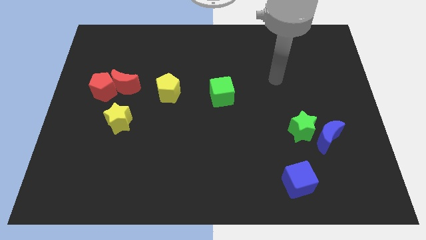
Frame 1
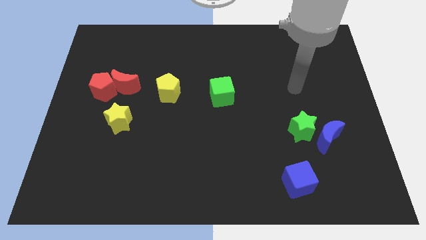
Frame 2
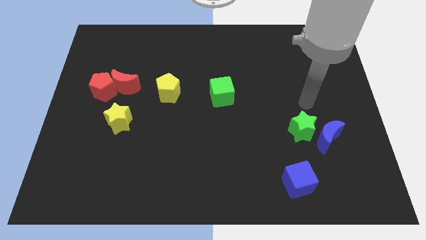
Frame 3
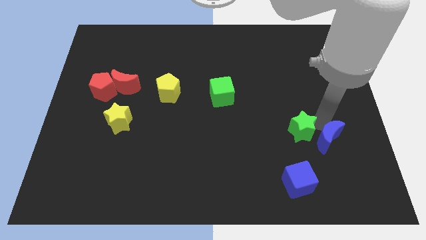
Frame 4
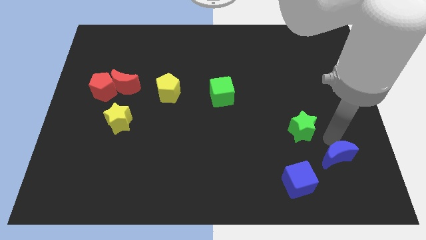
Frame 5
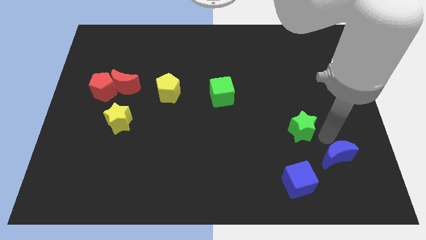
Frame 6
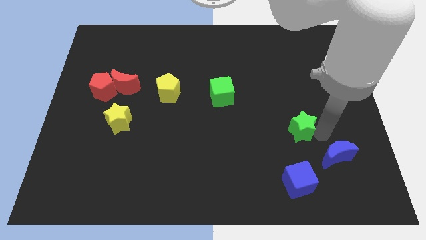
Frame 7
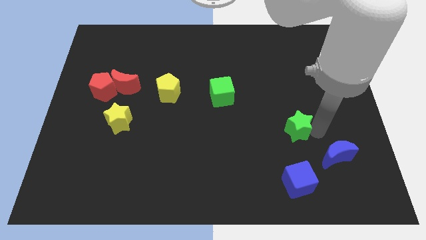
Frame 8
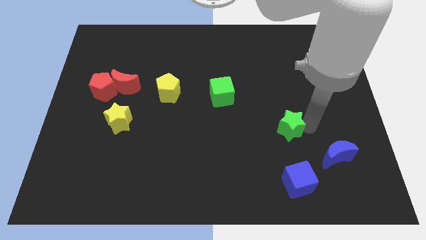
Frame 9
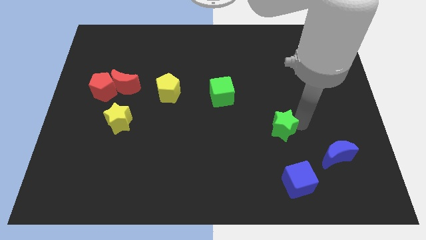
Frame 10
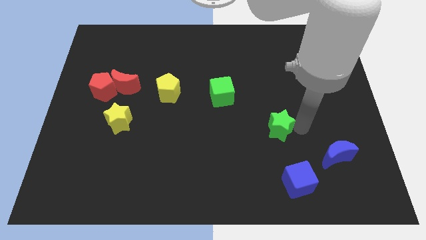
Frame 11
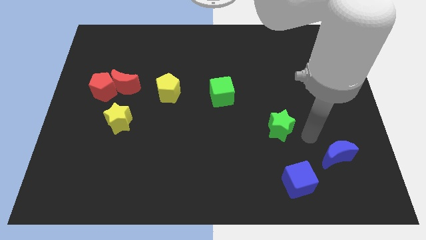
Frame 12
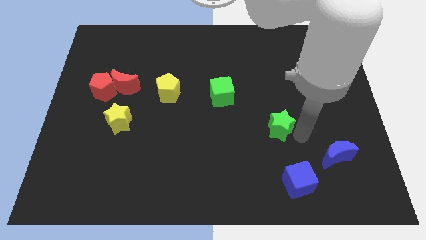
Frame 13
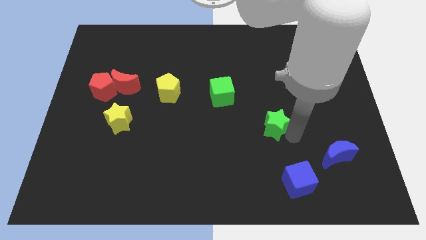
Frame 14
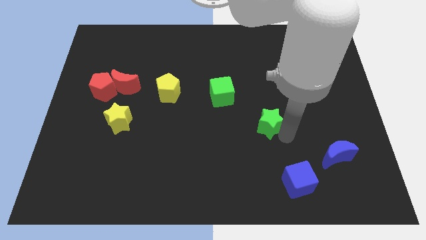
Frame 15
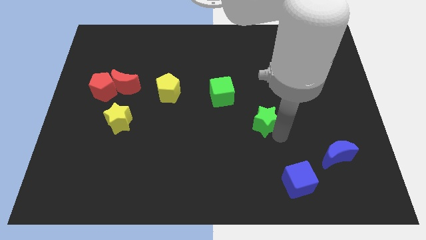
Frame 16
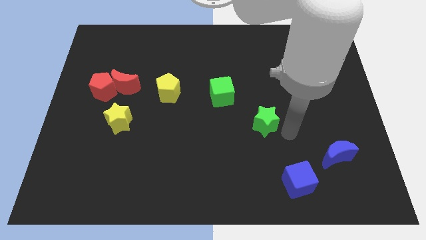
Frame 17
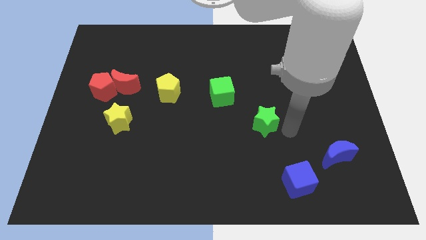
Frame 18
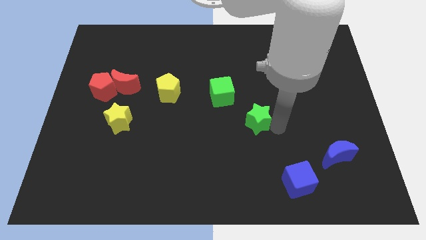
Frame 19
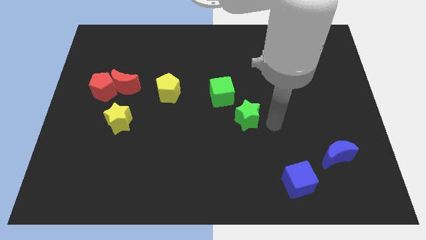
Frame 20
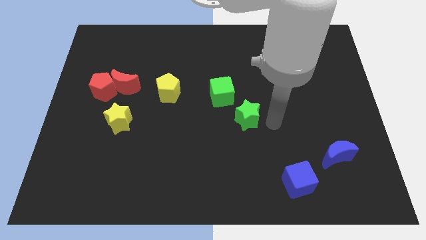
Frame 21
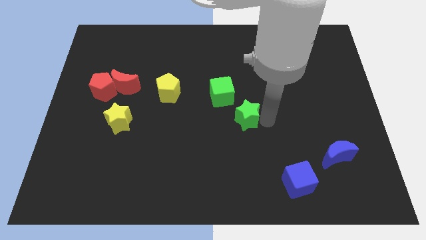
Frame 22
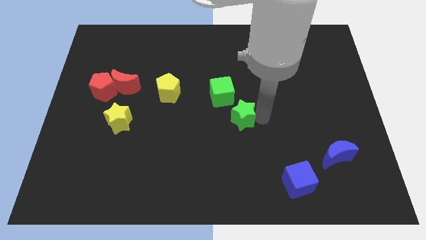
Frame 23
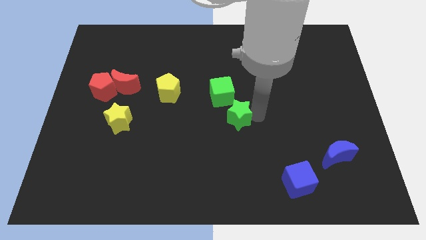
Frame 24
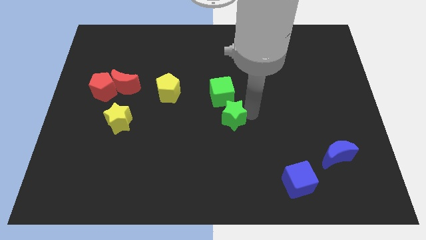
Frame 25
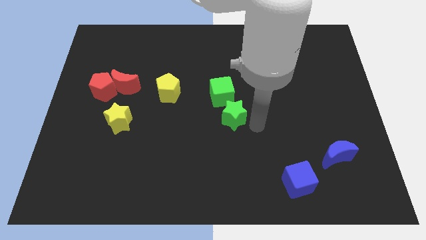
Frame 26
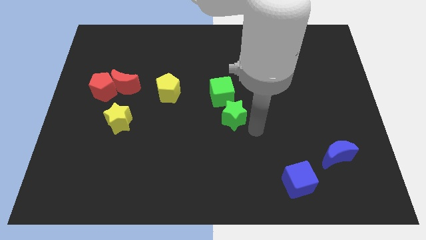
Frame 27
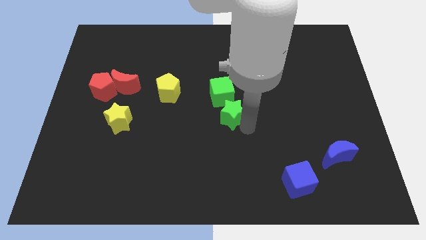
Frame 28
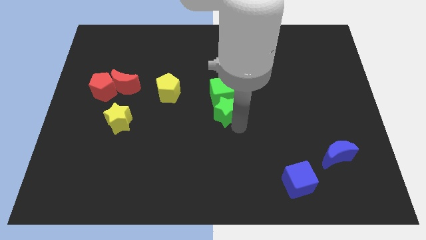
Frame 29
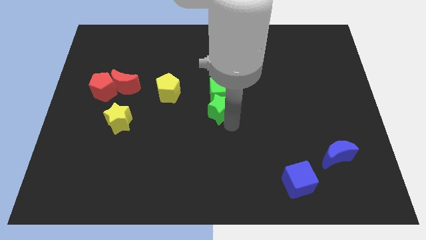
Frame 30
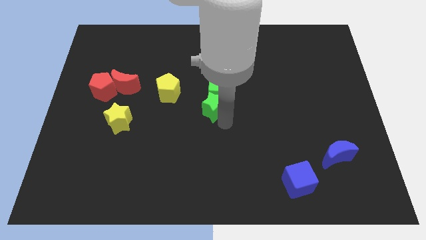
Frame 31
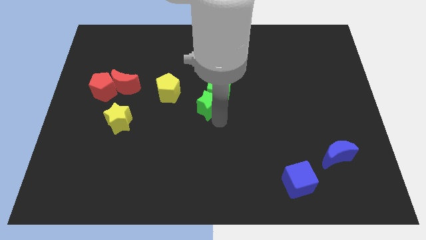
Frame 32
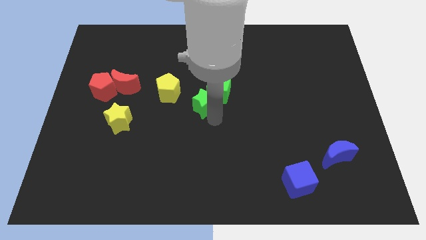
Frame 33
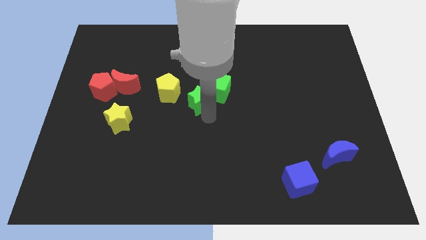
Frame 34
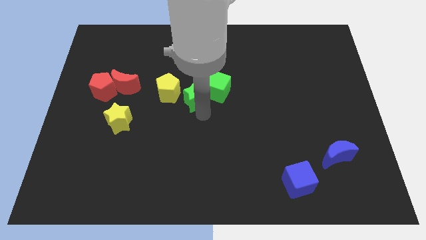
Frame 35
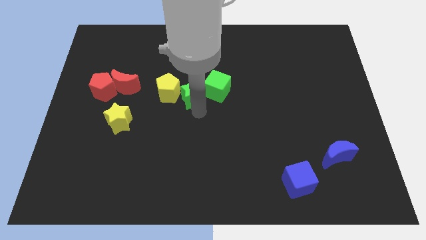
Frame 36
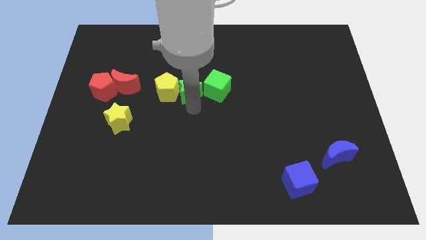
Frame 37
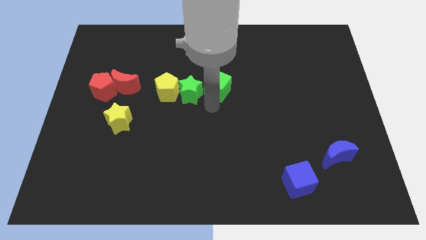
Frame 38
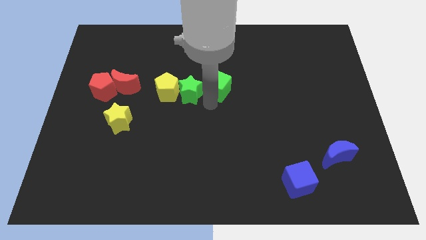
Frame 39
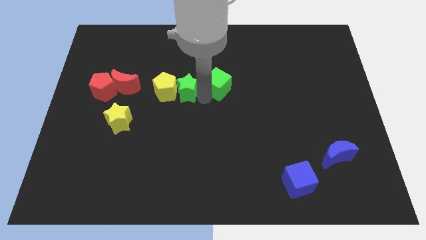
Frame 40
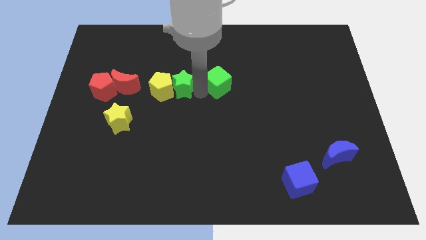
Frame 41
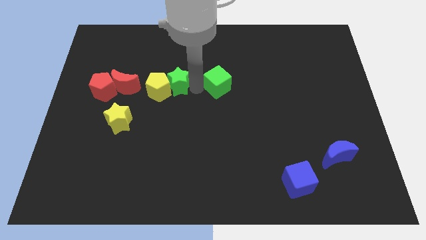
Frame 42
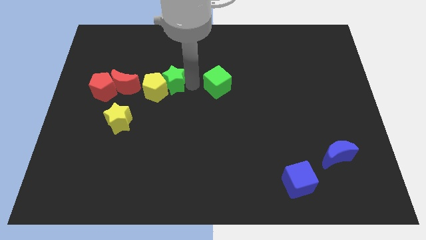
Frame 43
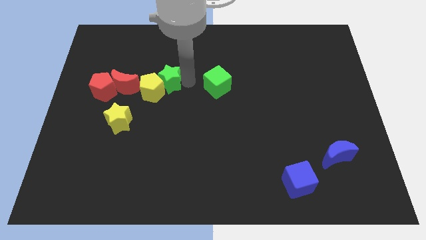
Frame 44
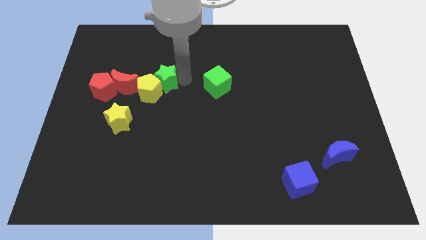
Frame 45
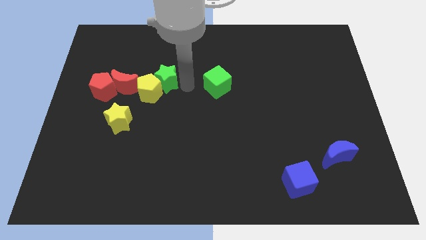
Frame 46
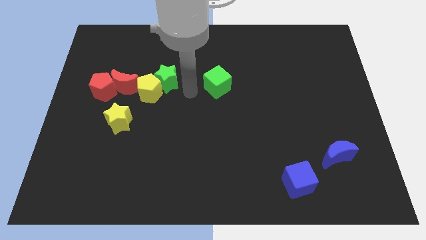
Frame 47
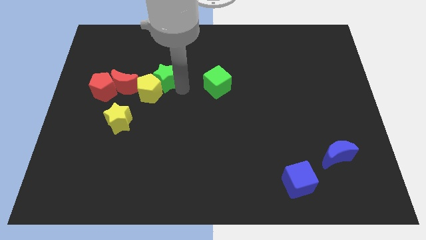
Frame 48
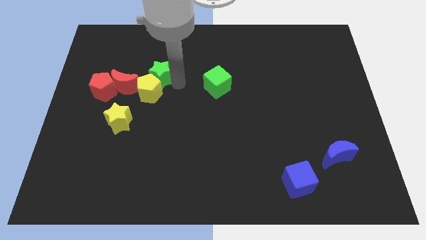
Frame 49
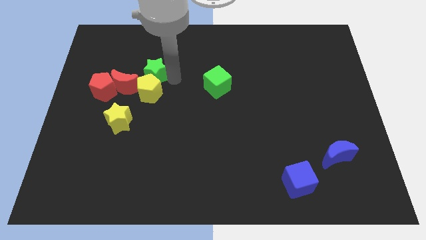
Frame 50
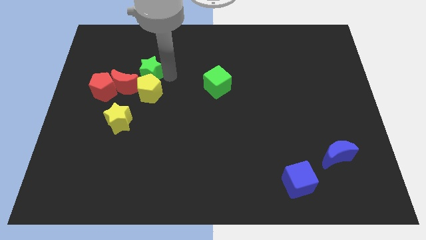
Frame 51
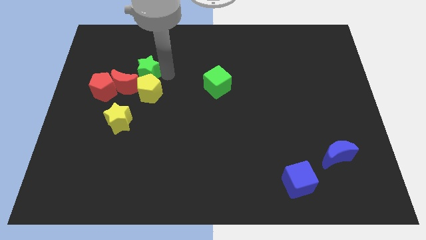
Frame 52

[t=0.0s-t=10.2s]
put the green star to the top right of the red pentagon

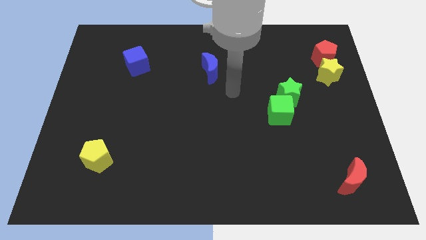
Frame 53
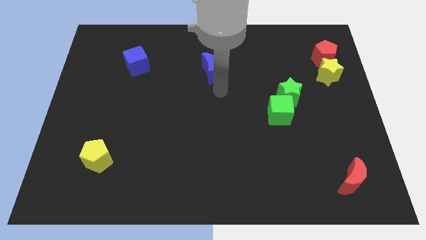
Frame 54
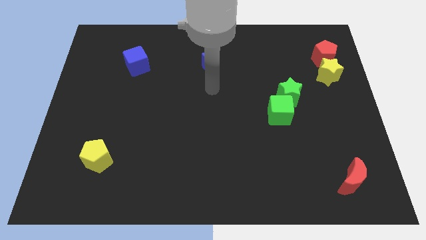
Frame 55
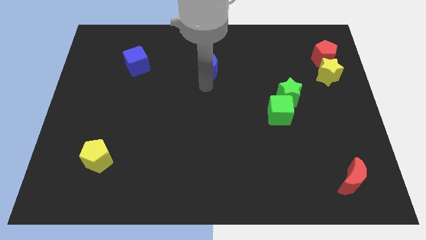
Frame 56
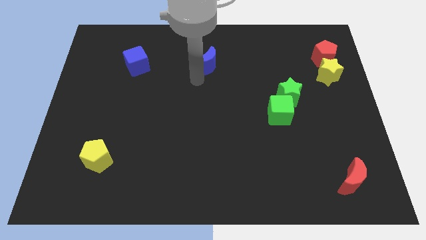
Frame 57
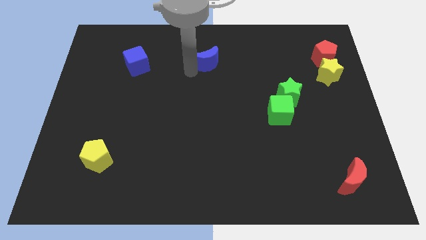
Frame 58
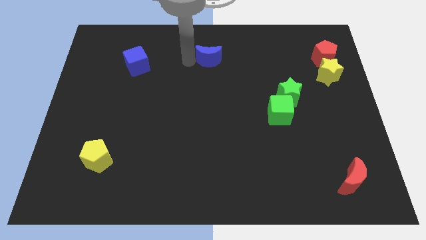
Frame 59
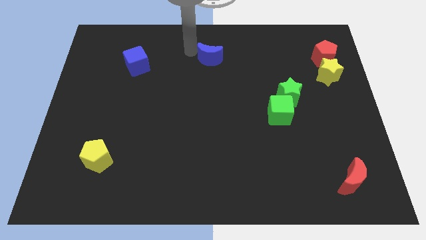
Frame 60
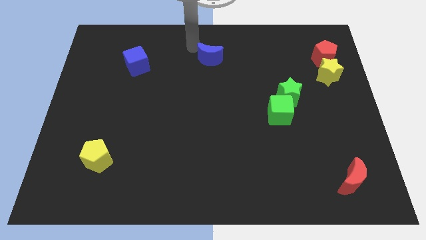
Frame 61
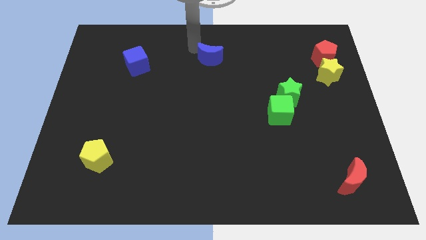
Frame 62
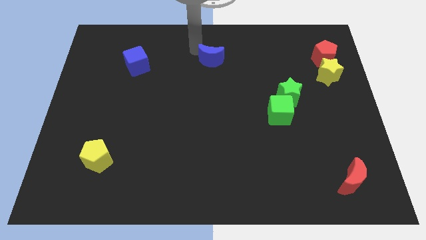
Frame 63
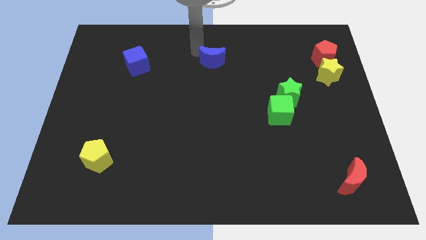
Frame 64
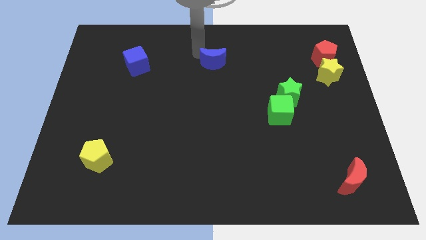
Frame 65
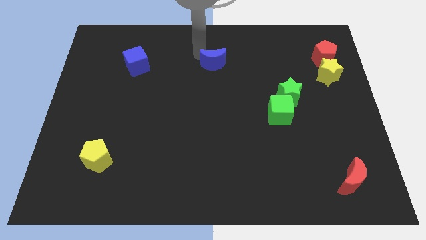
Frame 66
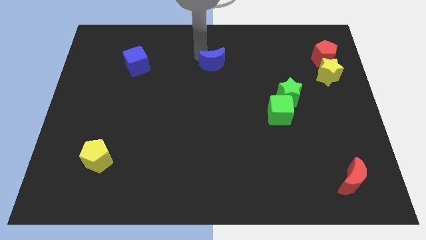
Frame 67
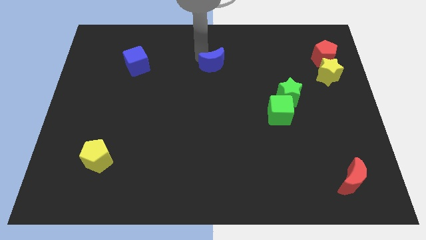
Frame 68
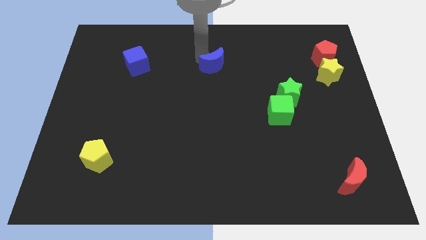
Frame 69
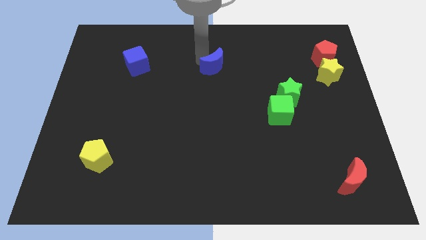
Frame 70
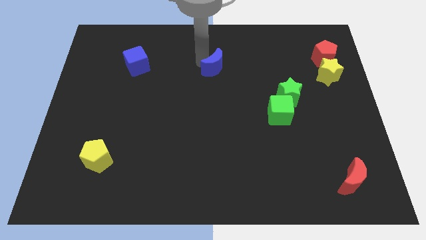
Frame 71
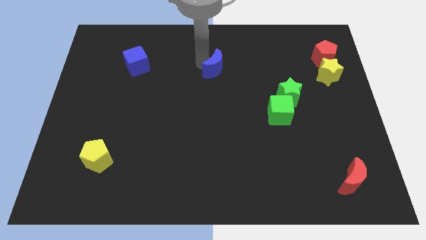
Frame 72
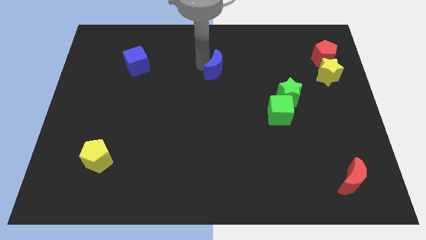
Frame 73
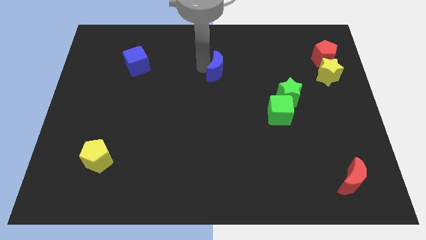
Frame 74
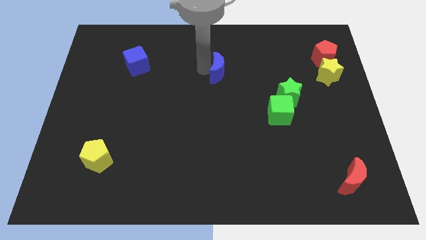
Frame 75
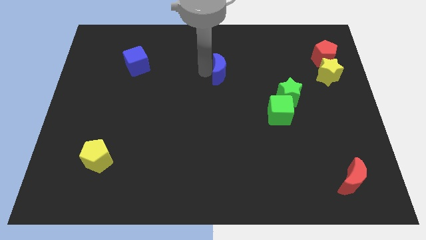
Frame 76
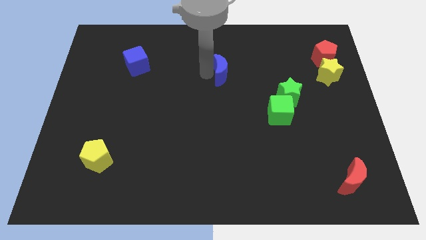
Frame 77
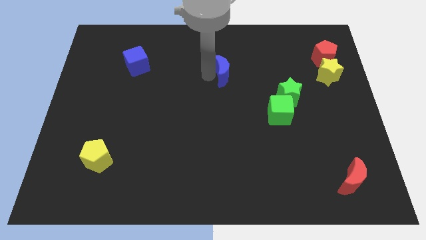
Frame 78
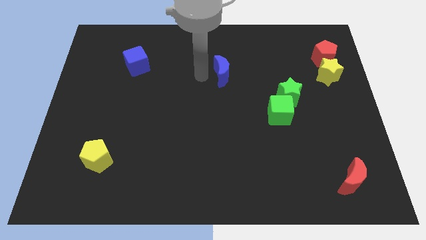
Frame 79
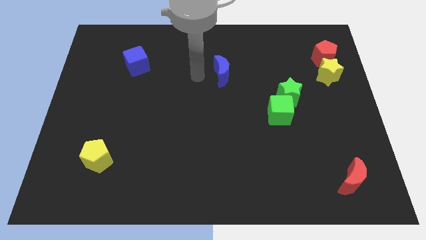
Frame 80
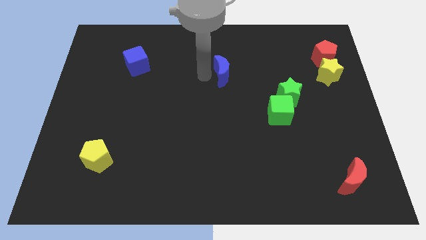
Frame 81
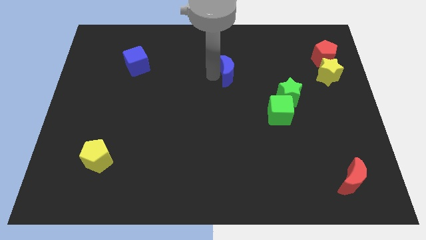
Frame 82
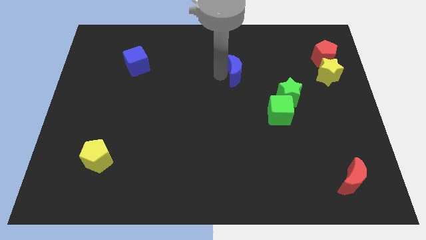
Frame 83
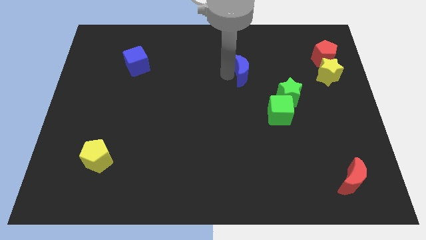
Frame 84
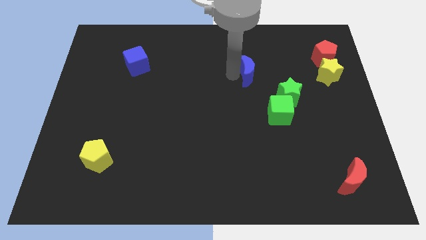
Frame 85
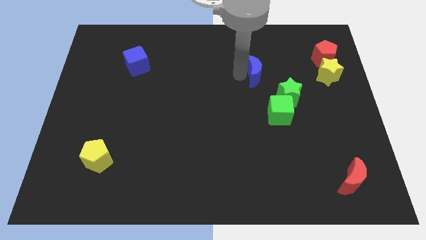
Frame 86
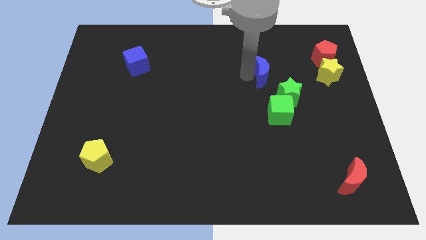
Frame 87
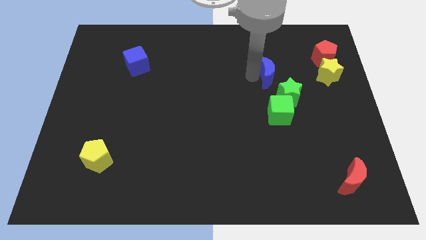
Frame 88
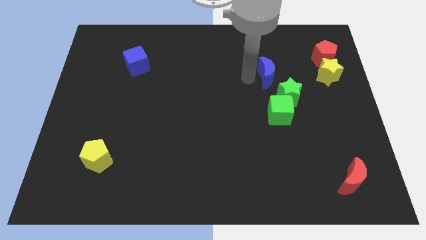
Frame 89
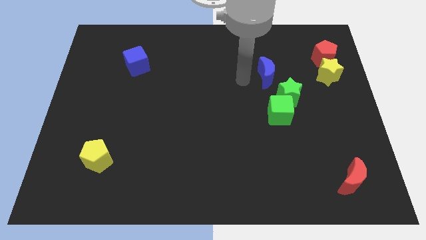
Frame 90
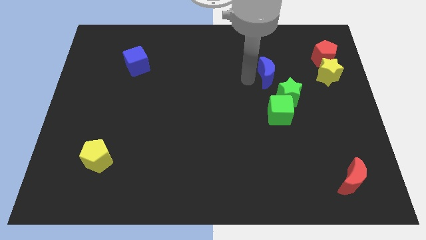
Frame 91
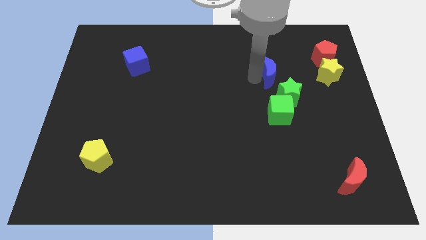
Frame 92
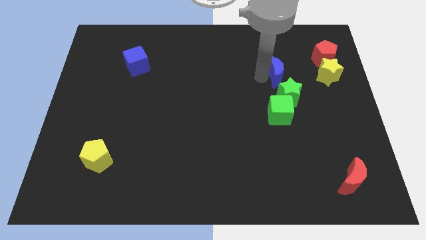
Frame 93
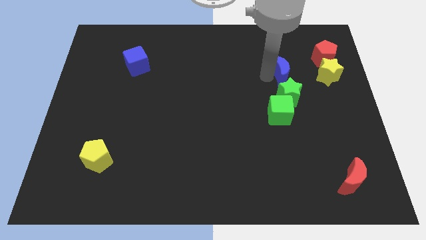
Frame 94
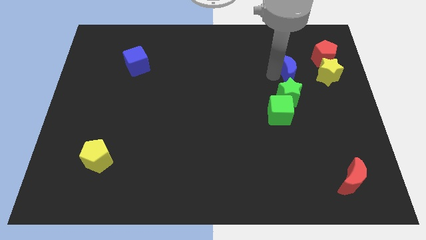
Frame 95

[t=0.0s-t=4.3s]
move the blue moon to the bottom left side of the red pentagon
